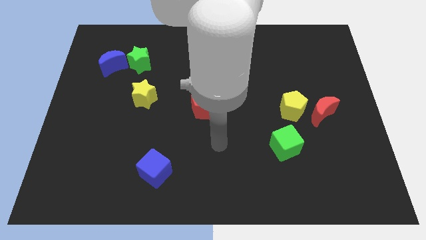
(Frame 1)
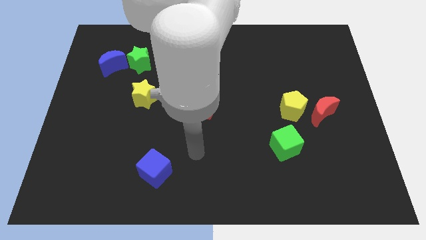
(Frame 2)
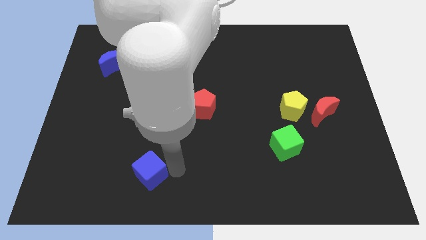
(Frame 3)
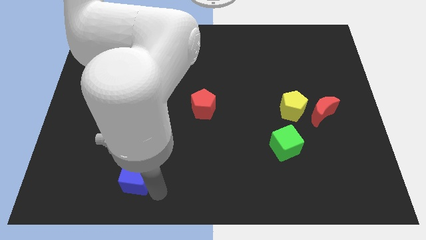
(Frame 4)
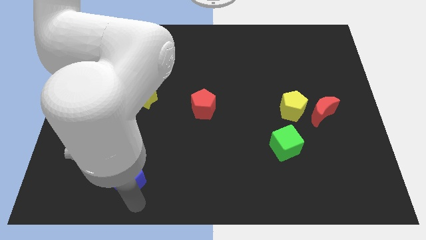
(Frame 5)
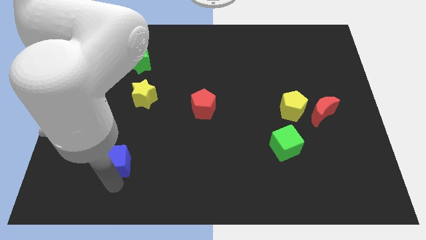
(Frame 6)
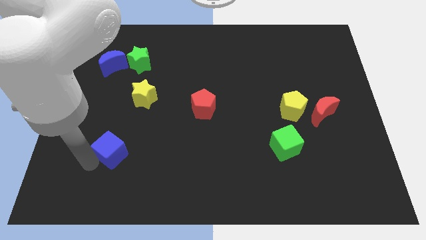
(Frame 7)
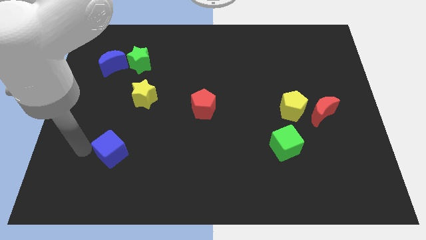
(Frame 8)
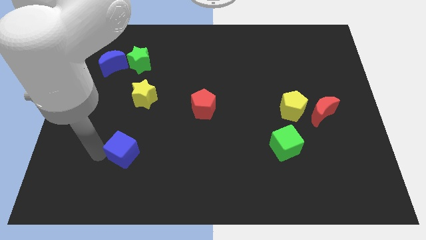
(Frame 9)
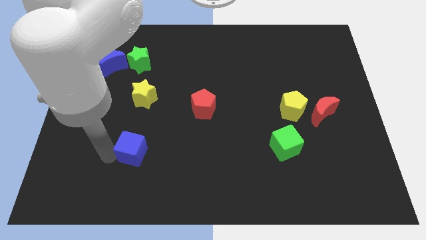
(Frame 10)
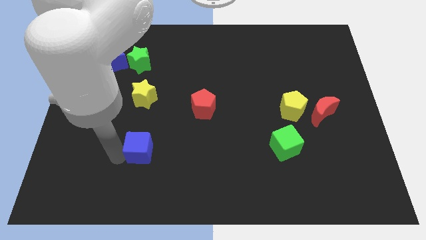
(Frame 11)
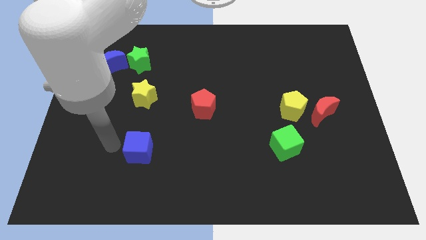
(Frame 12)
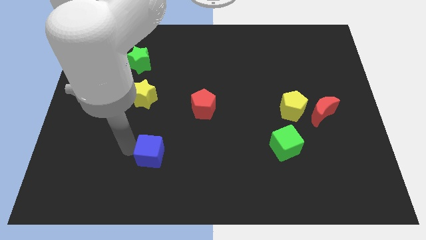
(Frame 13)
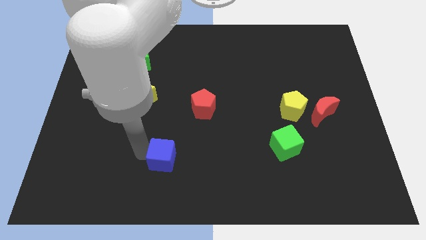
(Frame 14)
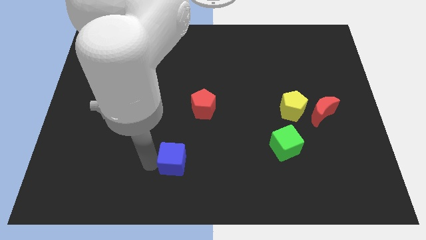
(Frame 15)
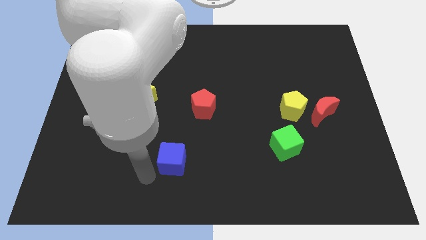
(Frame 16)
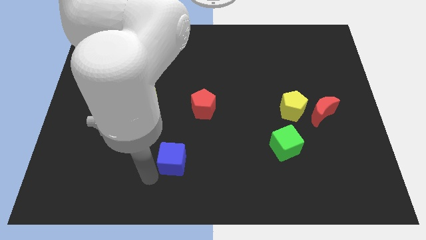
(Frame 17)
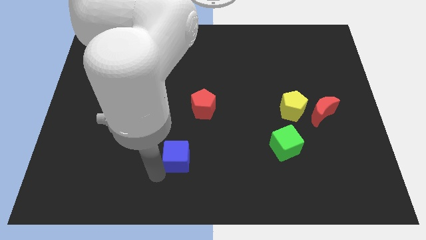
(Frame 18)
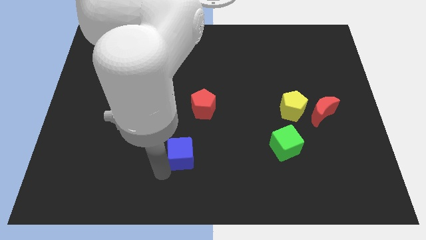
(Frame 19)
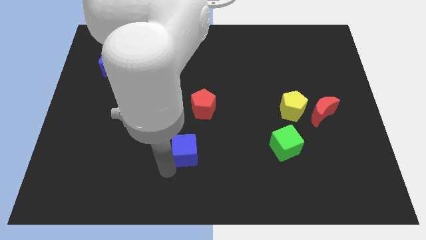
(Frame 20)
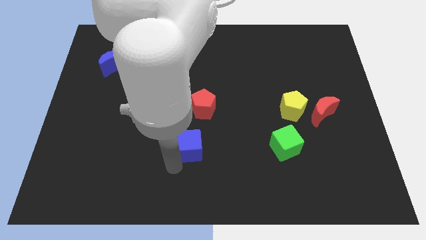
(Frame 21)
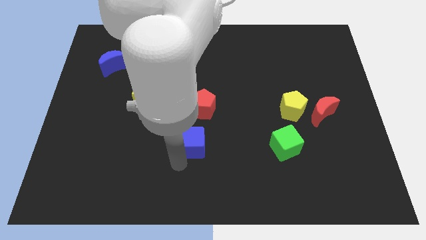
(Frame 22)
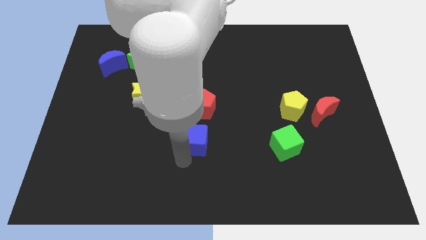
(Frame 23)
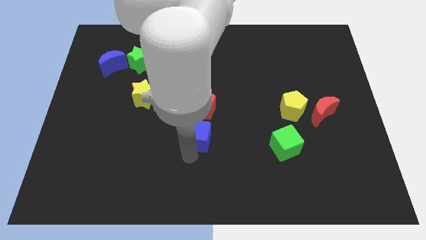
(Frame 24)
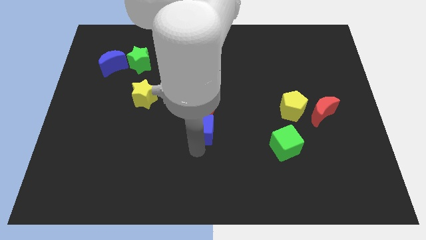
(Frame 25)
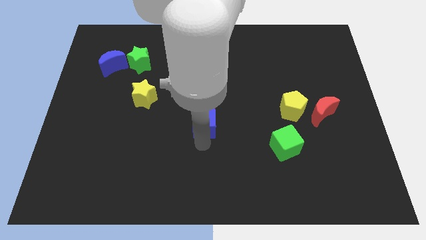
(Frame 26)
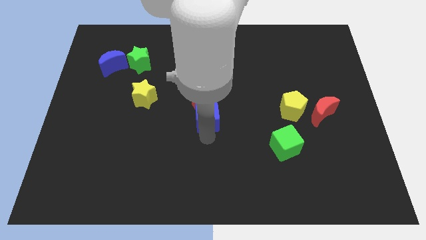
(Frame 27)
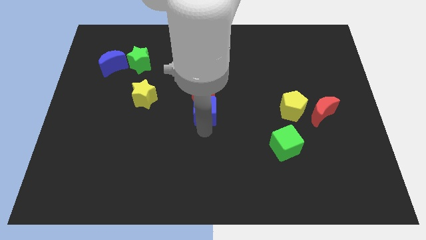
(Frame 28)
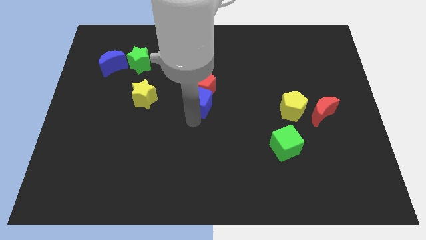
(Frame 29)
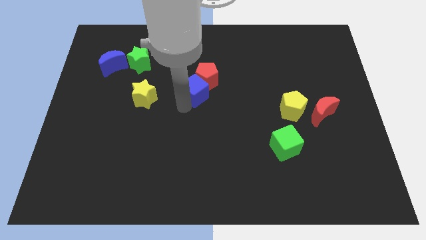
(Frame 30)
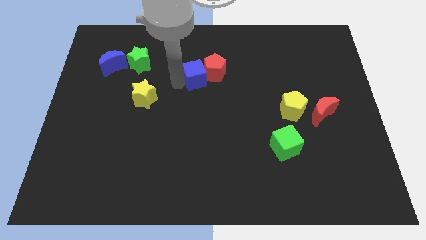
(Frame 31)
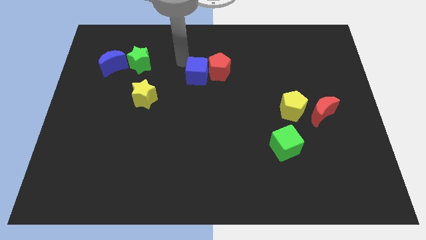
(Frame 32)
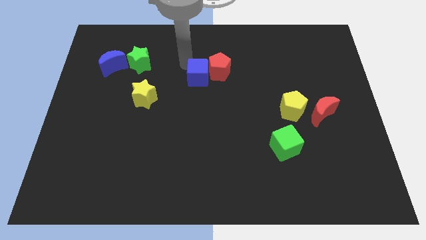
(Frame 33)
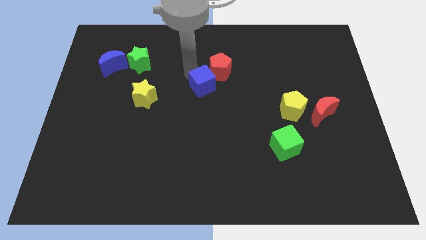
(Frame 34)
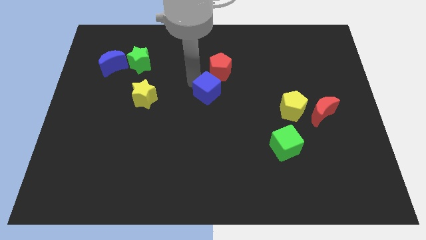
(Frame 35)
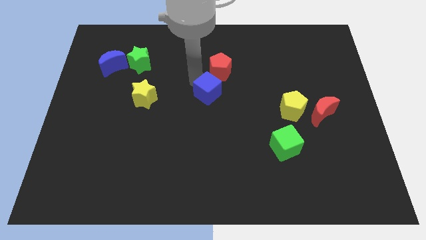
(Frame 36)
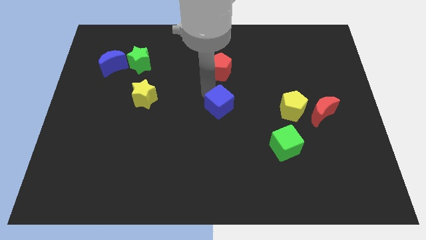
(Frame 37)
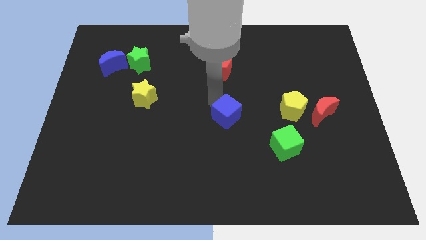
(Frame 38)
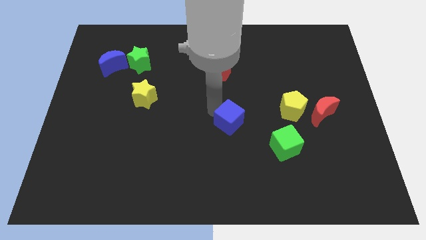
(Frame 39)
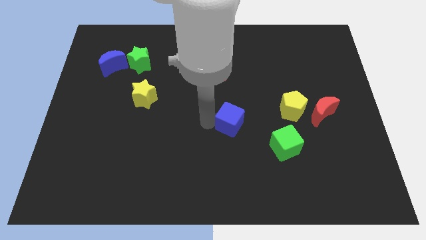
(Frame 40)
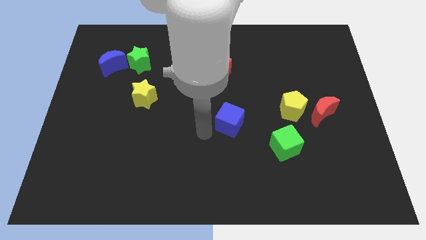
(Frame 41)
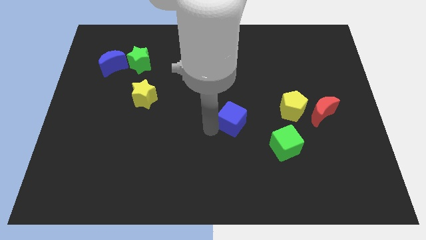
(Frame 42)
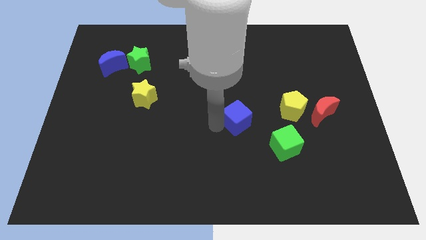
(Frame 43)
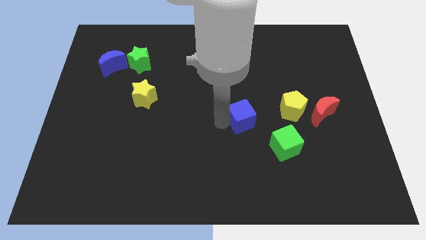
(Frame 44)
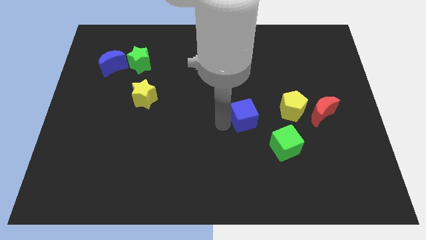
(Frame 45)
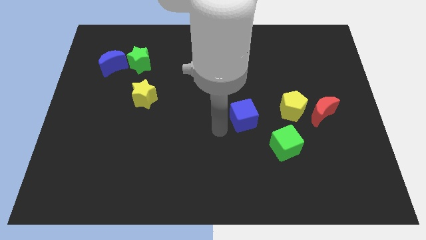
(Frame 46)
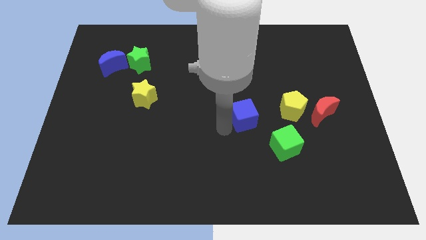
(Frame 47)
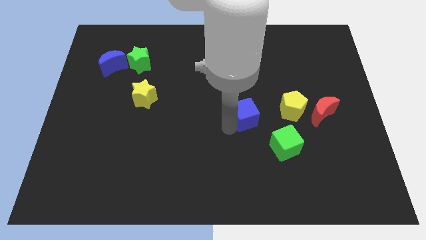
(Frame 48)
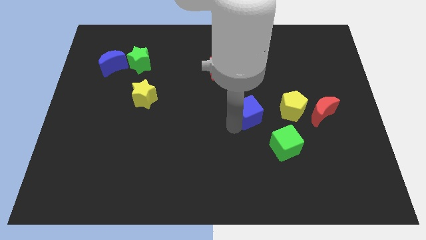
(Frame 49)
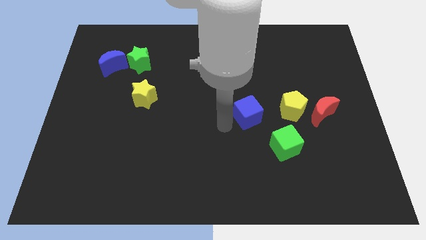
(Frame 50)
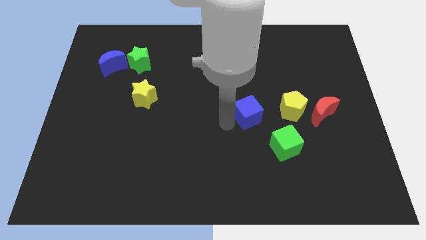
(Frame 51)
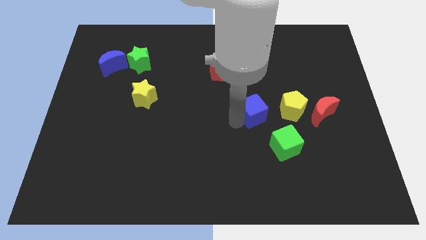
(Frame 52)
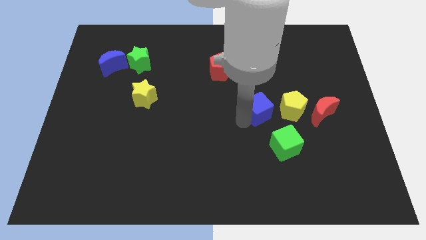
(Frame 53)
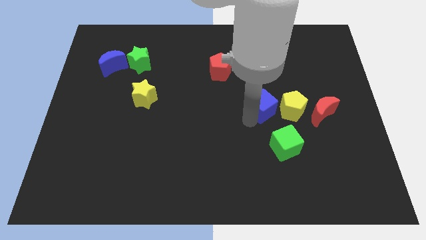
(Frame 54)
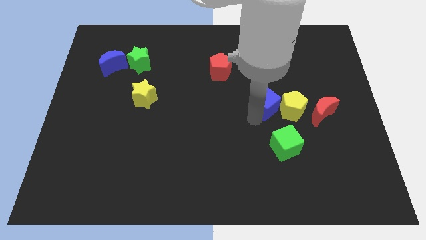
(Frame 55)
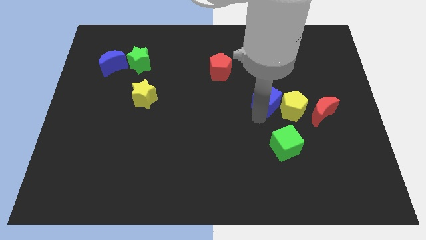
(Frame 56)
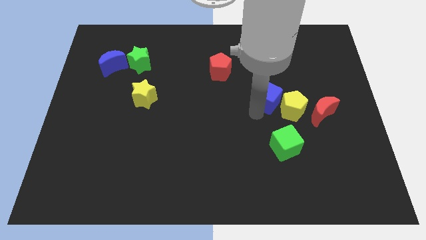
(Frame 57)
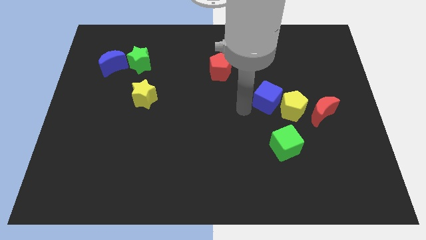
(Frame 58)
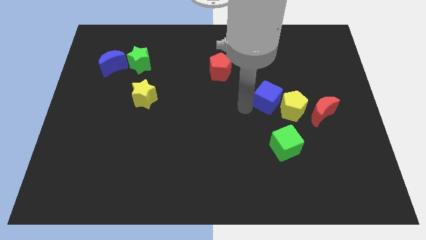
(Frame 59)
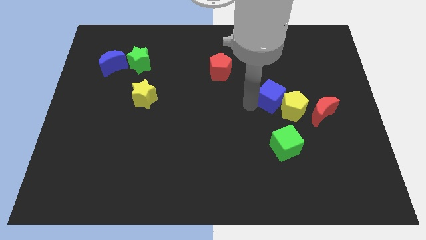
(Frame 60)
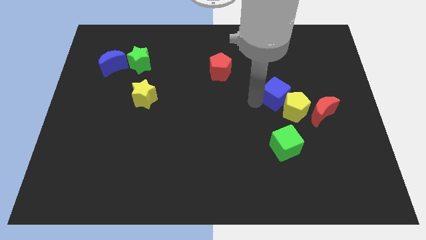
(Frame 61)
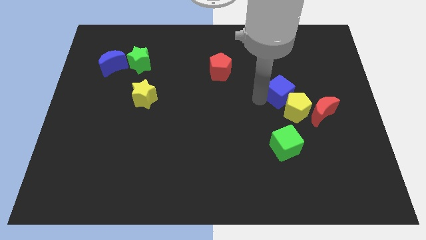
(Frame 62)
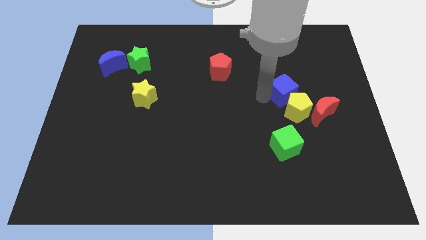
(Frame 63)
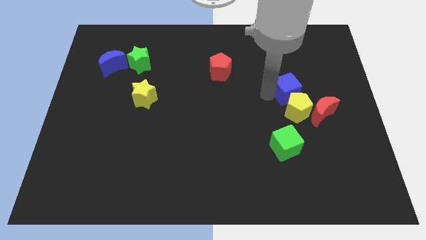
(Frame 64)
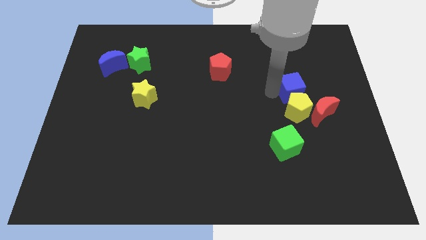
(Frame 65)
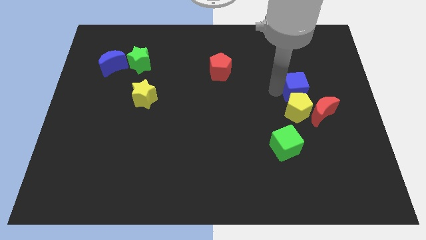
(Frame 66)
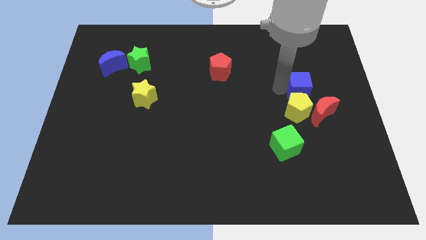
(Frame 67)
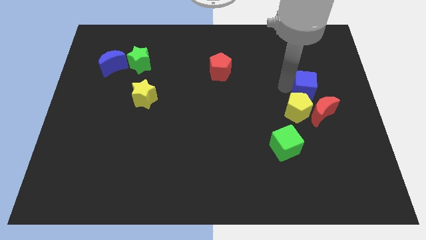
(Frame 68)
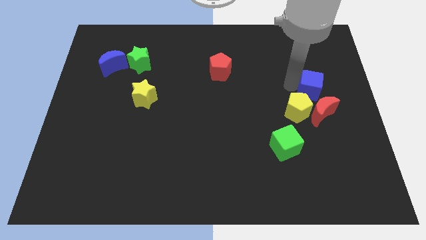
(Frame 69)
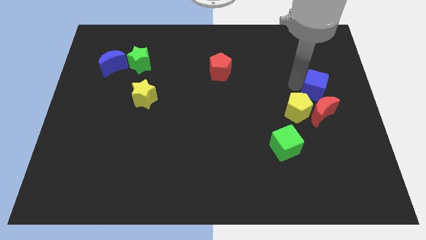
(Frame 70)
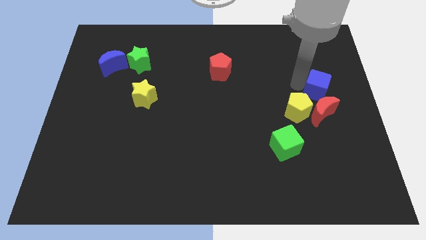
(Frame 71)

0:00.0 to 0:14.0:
push the blue cube to the right side of the board
